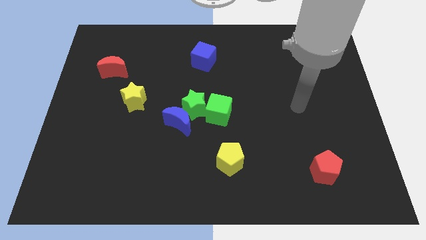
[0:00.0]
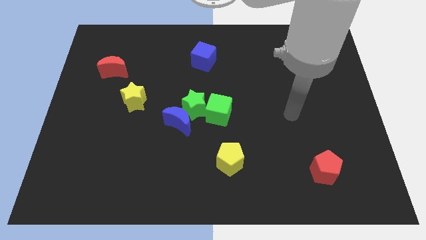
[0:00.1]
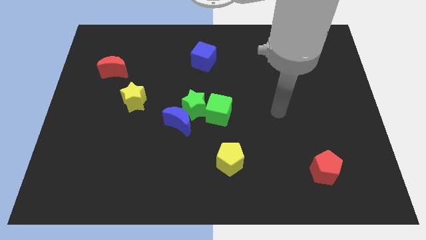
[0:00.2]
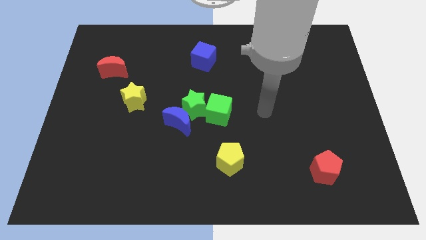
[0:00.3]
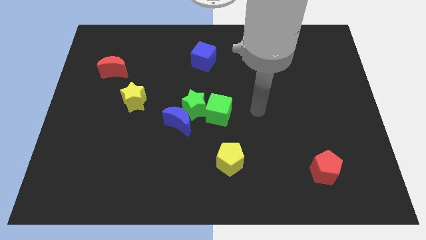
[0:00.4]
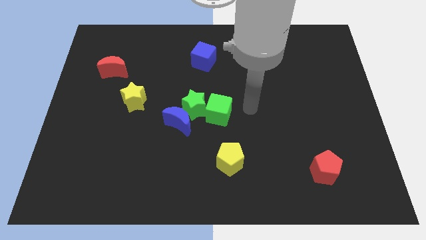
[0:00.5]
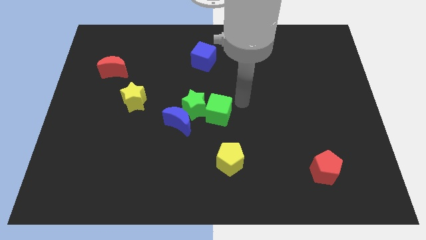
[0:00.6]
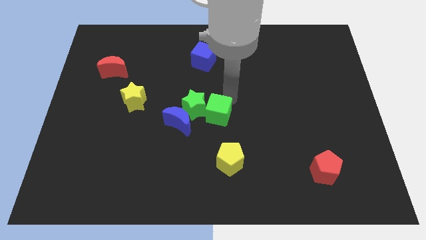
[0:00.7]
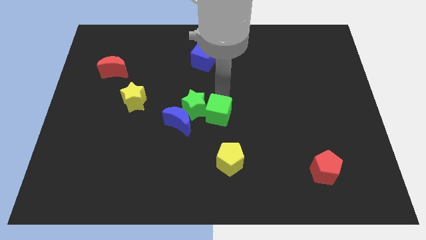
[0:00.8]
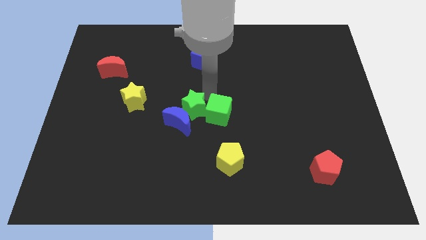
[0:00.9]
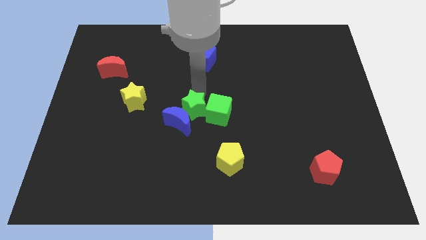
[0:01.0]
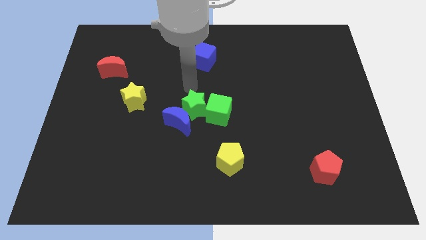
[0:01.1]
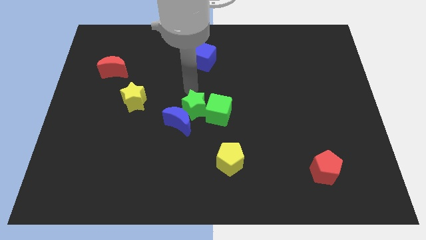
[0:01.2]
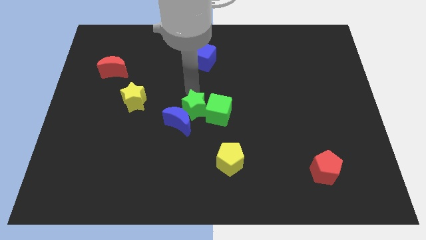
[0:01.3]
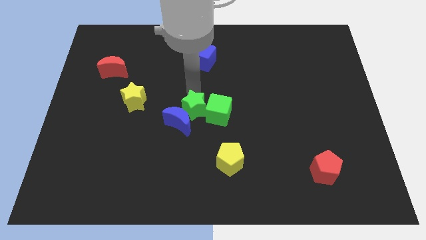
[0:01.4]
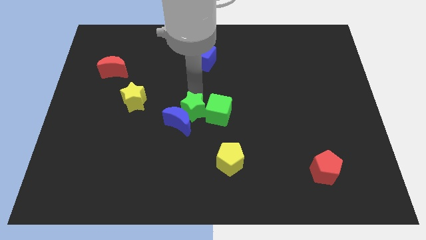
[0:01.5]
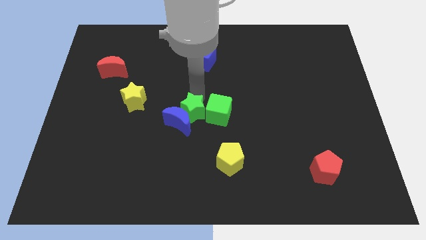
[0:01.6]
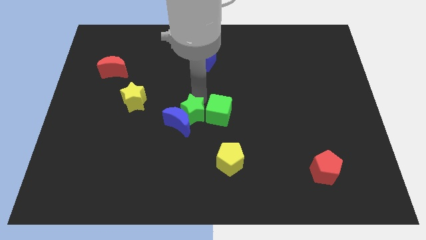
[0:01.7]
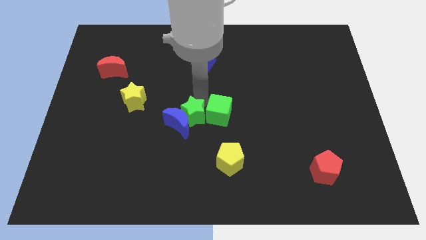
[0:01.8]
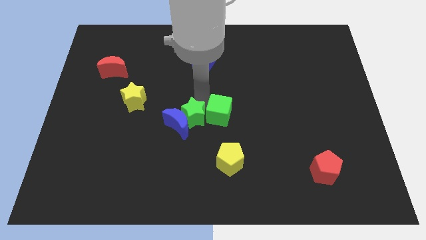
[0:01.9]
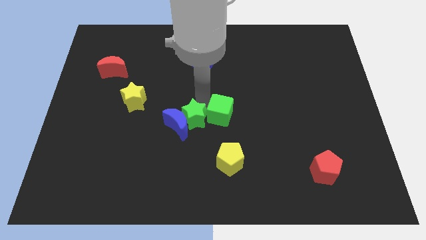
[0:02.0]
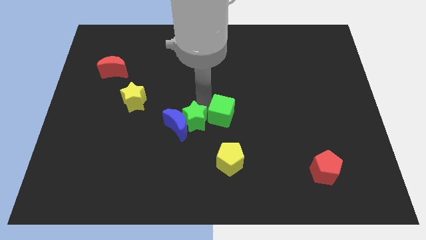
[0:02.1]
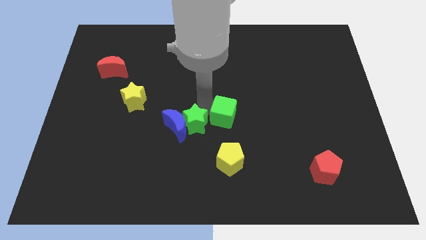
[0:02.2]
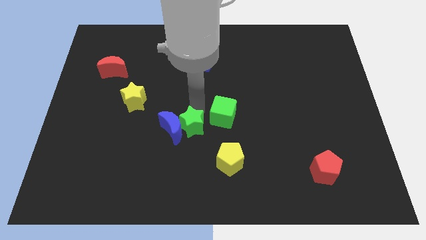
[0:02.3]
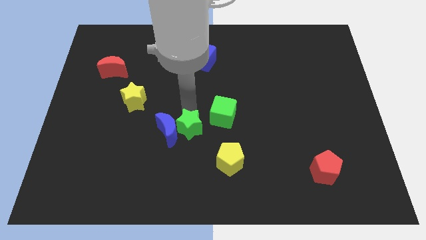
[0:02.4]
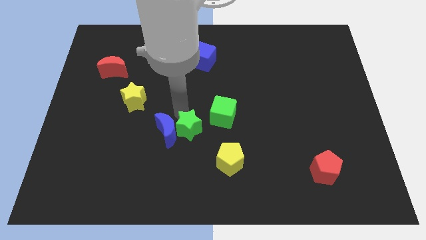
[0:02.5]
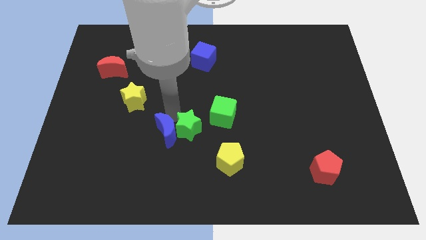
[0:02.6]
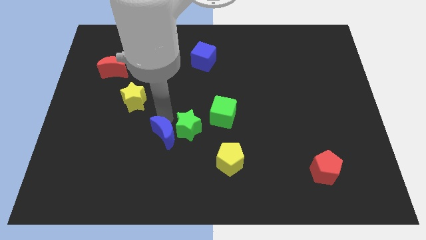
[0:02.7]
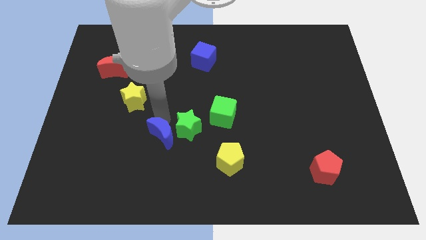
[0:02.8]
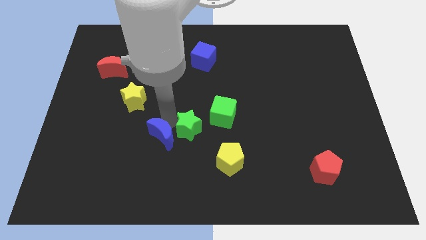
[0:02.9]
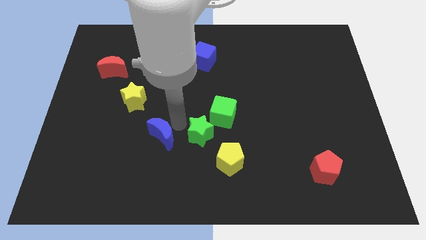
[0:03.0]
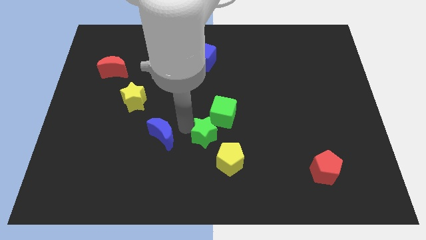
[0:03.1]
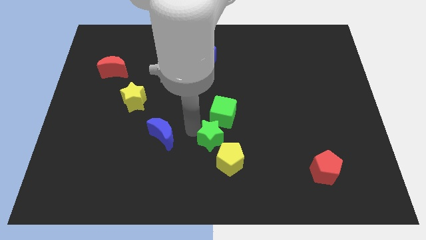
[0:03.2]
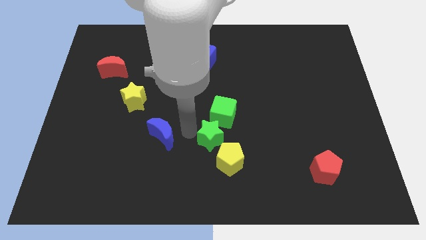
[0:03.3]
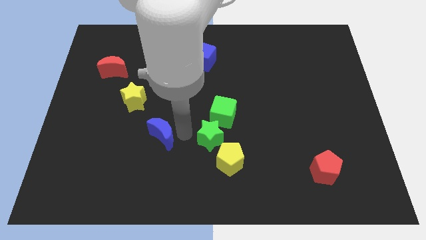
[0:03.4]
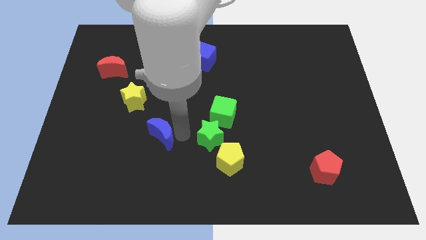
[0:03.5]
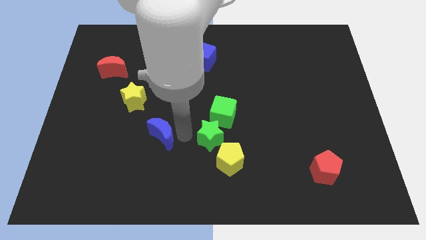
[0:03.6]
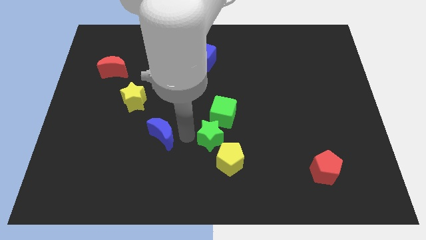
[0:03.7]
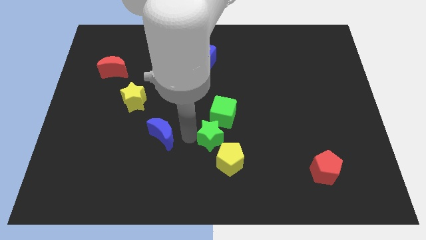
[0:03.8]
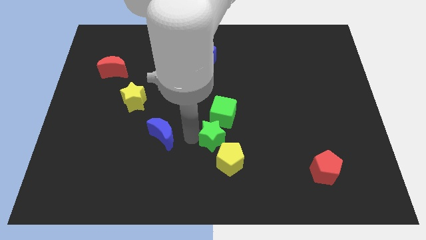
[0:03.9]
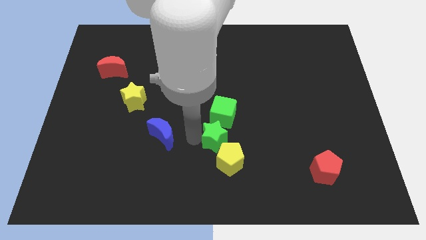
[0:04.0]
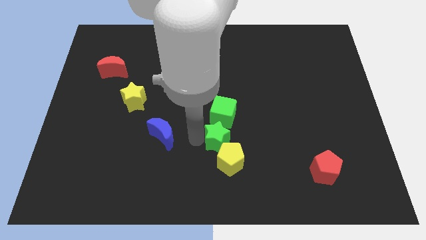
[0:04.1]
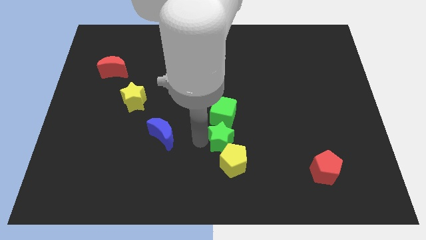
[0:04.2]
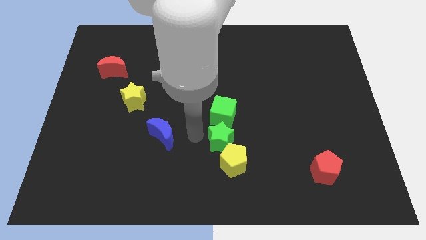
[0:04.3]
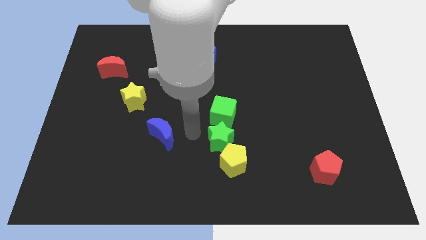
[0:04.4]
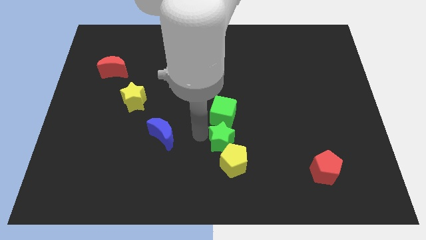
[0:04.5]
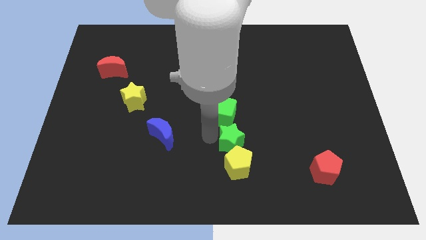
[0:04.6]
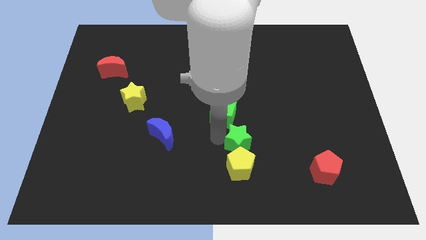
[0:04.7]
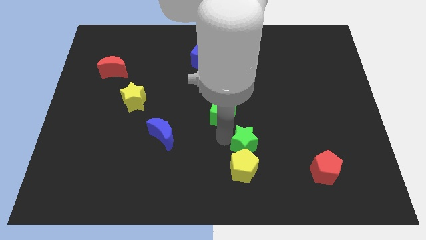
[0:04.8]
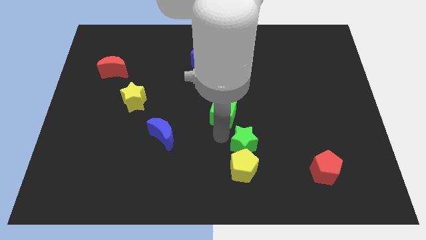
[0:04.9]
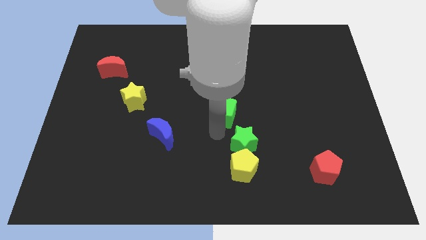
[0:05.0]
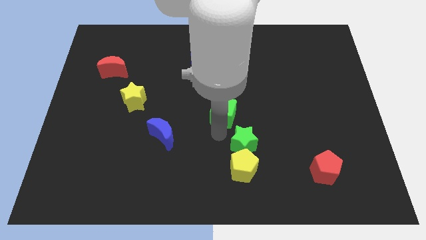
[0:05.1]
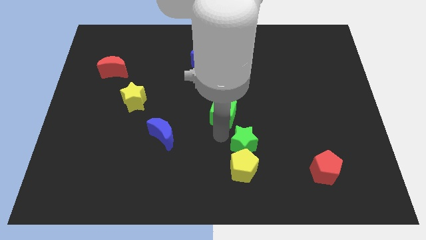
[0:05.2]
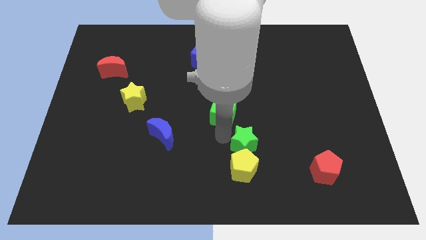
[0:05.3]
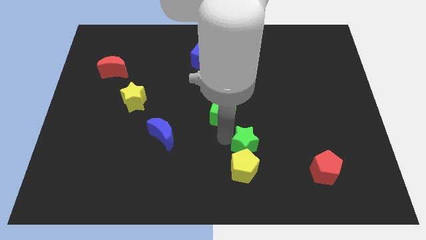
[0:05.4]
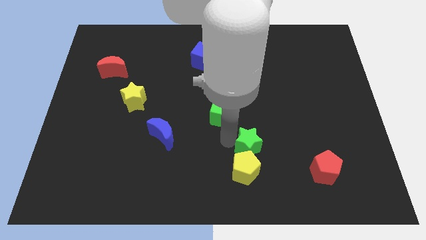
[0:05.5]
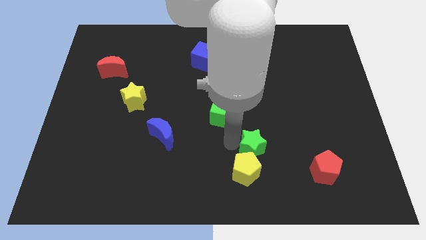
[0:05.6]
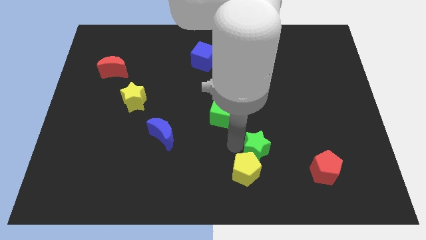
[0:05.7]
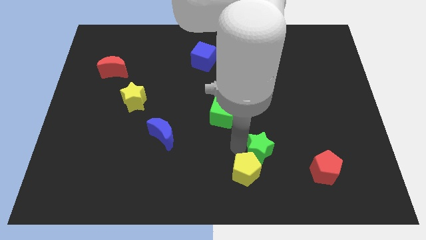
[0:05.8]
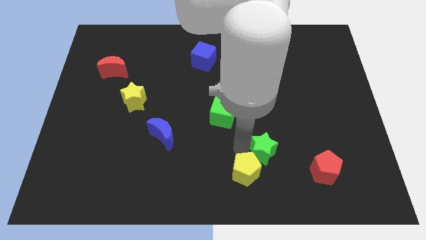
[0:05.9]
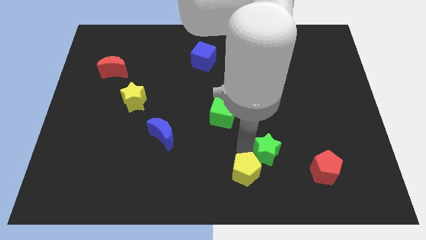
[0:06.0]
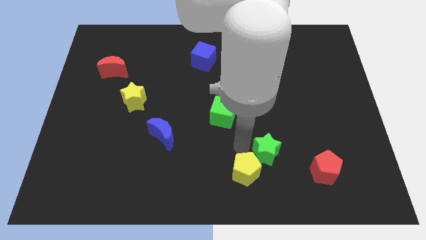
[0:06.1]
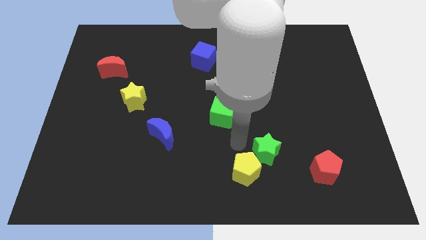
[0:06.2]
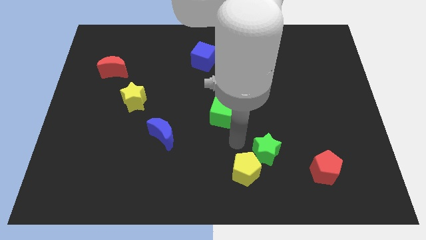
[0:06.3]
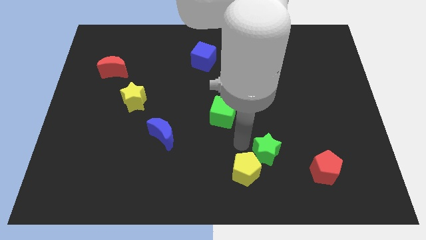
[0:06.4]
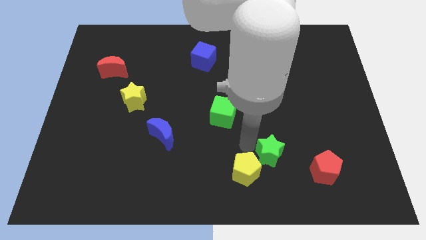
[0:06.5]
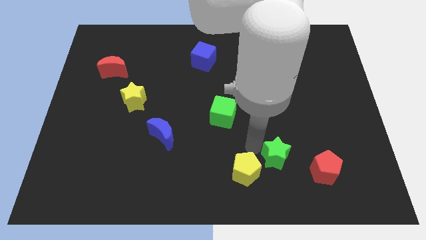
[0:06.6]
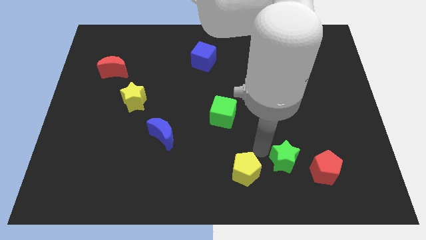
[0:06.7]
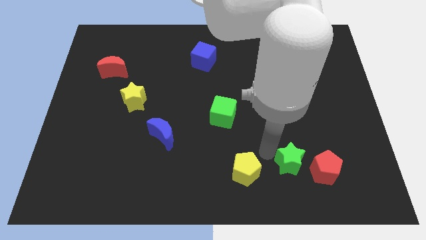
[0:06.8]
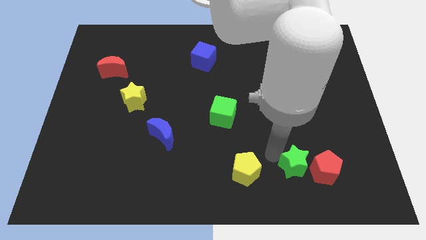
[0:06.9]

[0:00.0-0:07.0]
move the green star towards the red pentagon
